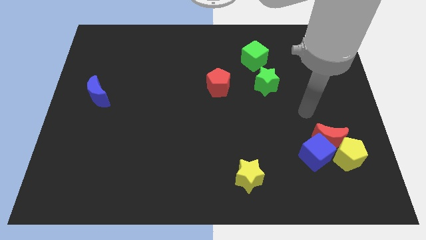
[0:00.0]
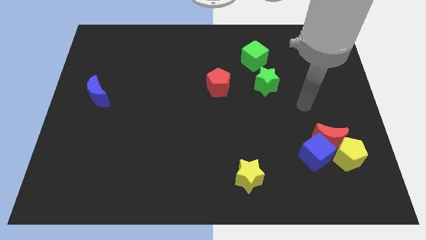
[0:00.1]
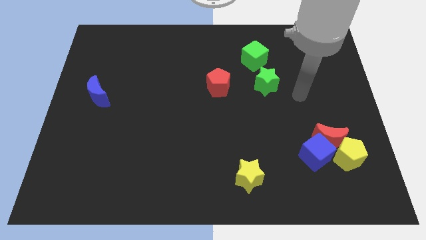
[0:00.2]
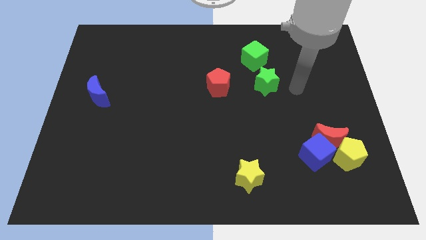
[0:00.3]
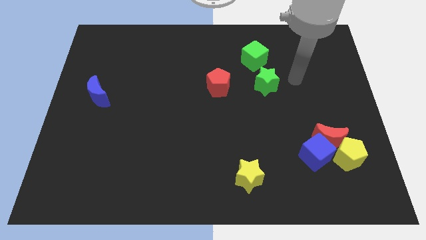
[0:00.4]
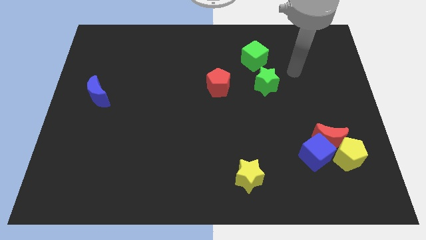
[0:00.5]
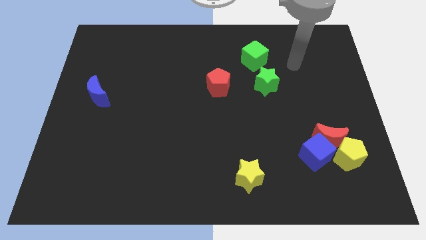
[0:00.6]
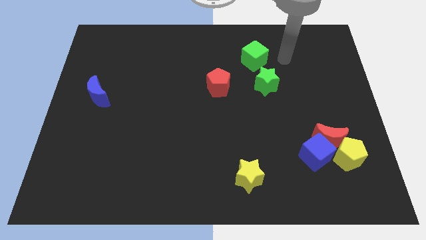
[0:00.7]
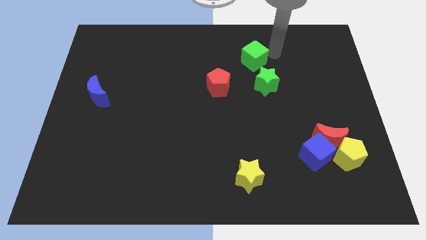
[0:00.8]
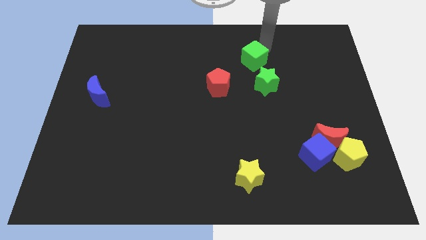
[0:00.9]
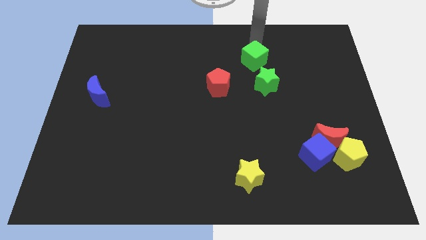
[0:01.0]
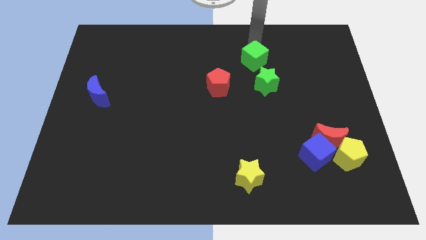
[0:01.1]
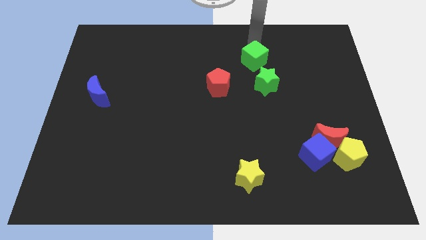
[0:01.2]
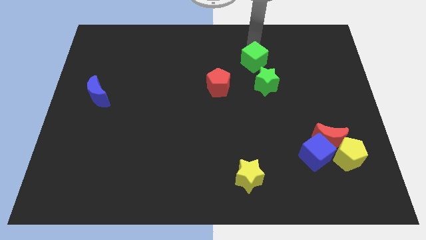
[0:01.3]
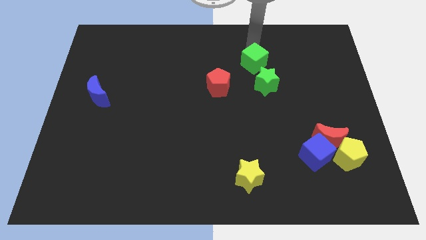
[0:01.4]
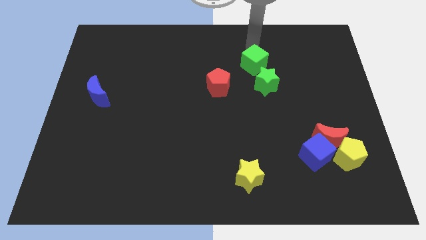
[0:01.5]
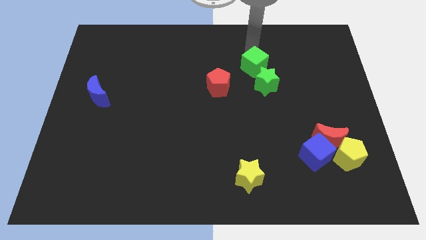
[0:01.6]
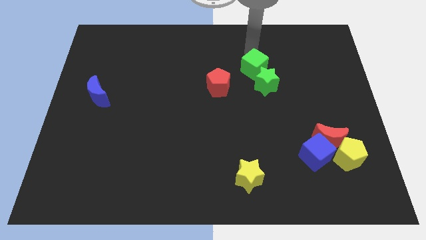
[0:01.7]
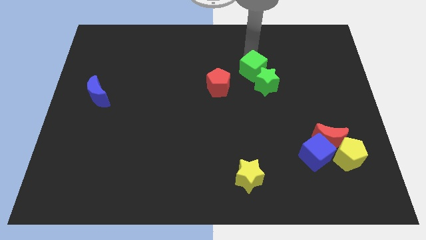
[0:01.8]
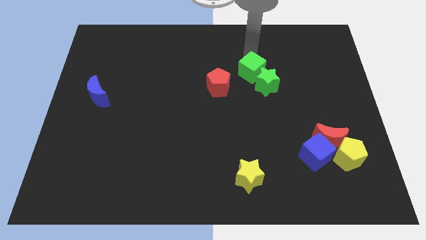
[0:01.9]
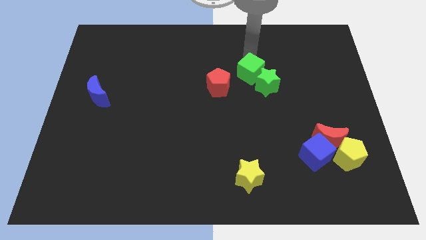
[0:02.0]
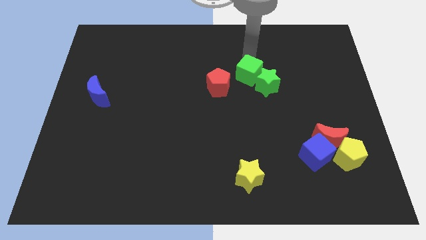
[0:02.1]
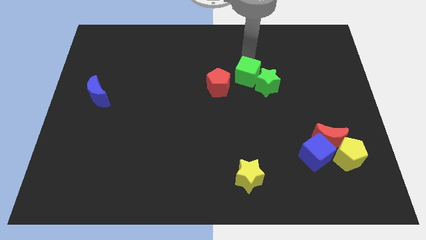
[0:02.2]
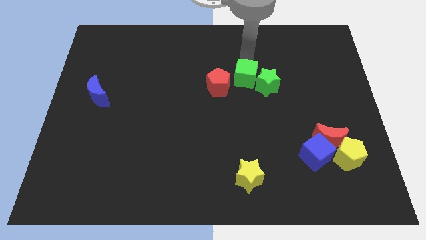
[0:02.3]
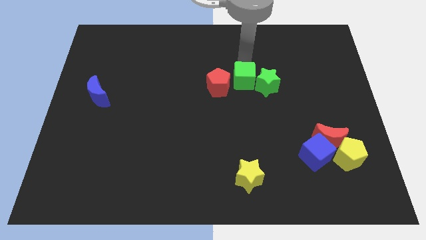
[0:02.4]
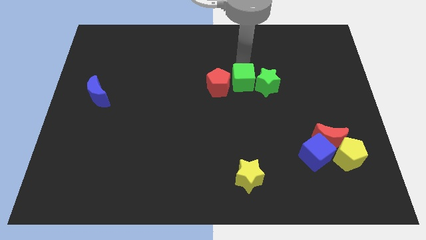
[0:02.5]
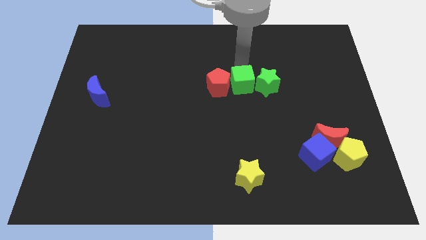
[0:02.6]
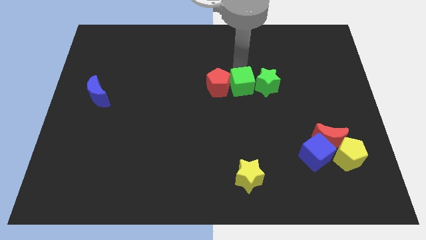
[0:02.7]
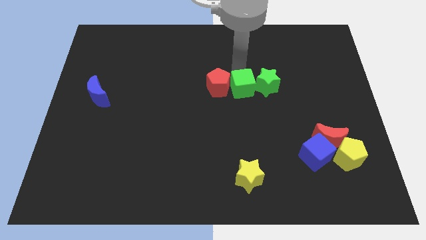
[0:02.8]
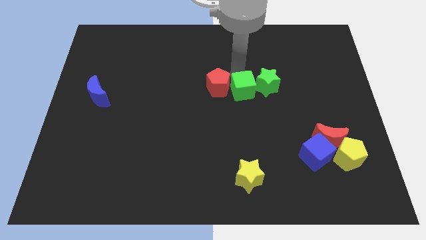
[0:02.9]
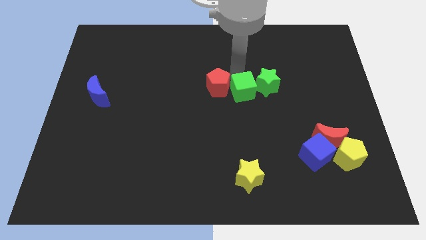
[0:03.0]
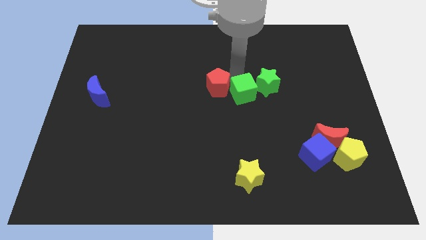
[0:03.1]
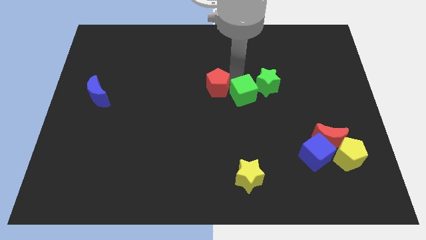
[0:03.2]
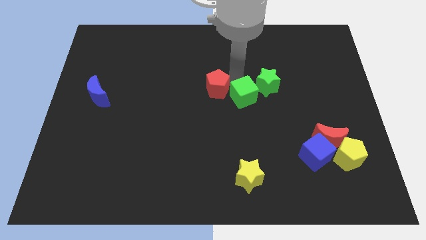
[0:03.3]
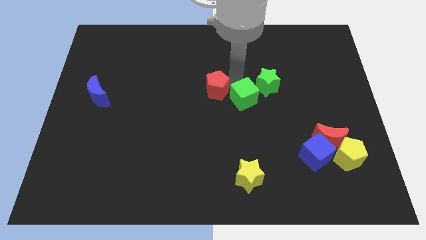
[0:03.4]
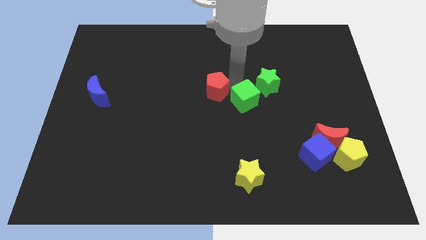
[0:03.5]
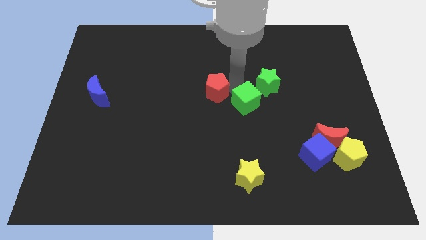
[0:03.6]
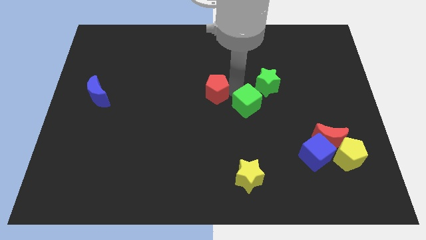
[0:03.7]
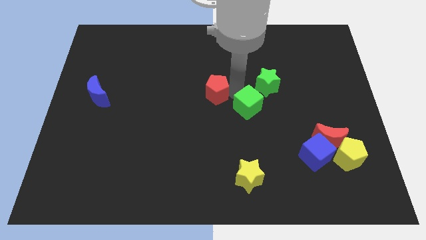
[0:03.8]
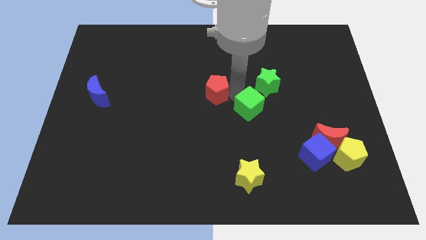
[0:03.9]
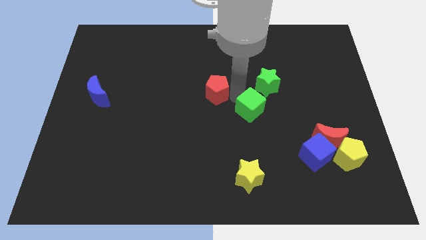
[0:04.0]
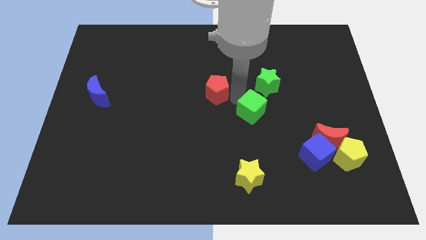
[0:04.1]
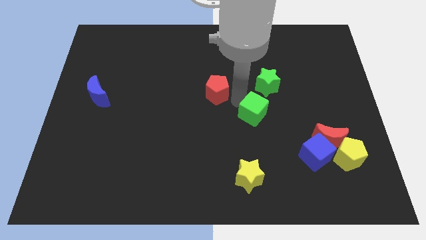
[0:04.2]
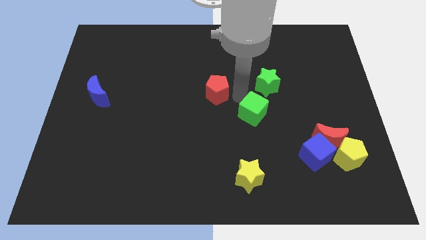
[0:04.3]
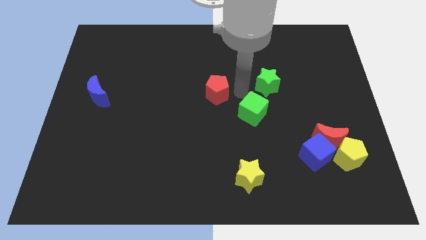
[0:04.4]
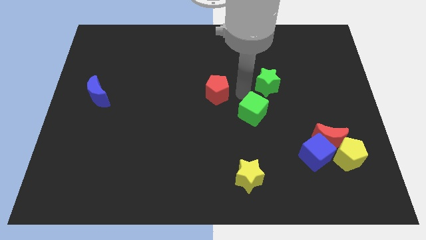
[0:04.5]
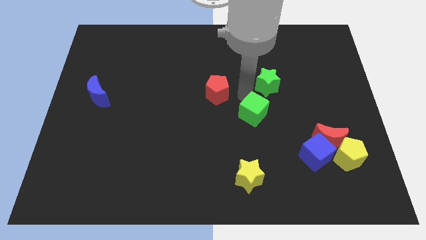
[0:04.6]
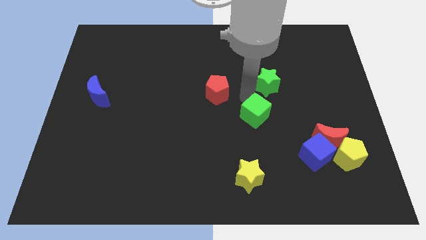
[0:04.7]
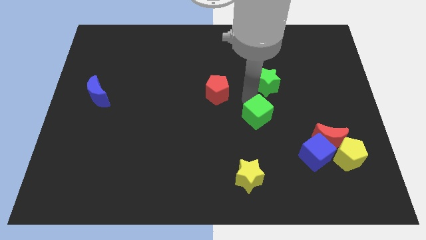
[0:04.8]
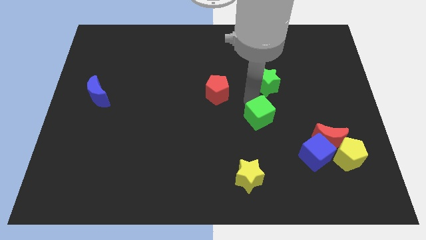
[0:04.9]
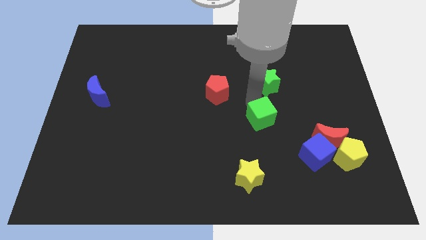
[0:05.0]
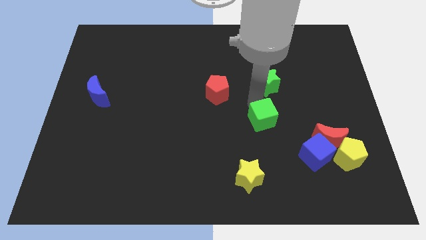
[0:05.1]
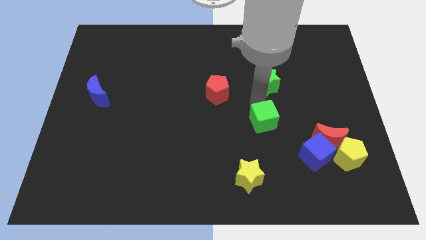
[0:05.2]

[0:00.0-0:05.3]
move the green cube downwards

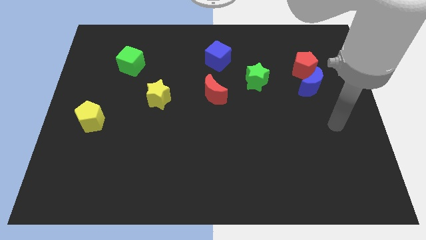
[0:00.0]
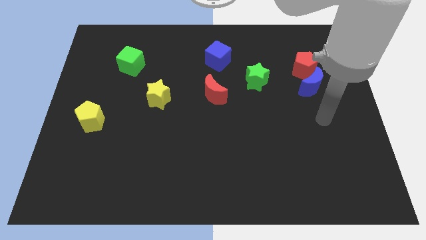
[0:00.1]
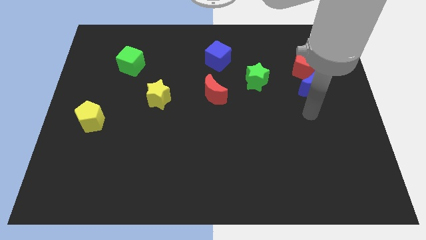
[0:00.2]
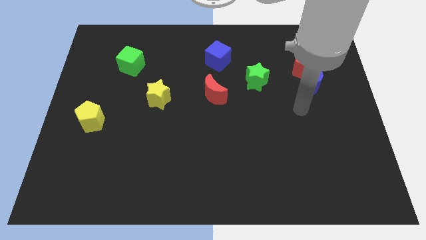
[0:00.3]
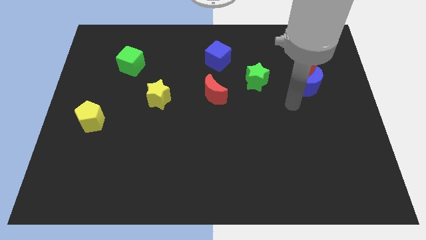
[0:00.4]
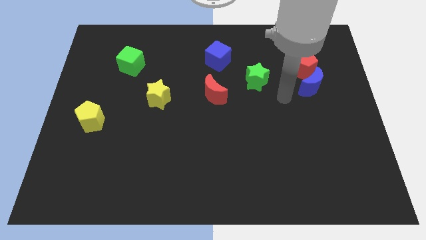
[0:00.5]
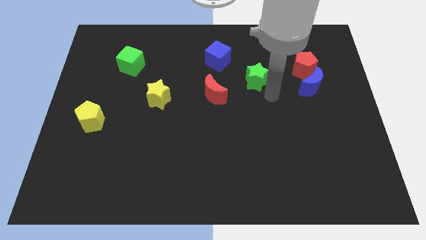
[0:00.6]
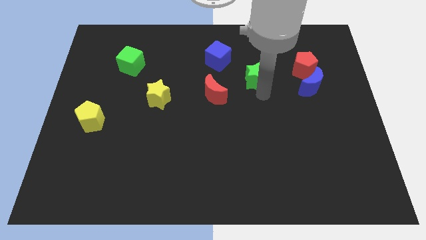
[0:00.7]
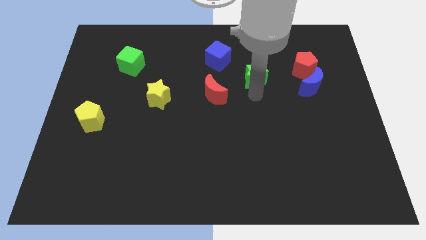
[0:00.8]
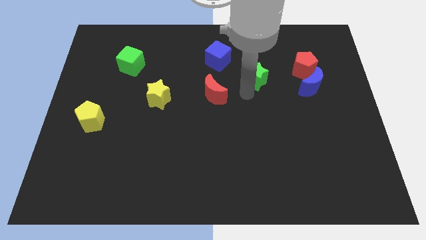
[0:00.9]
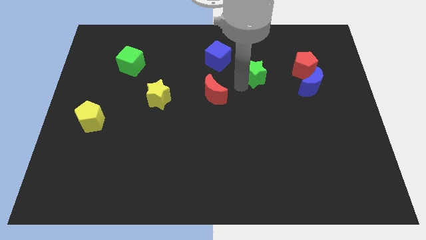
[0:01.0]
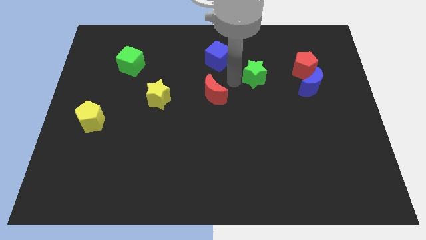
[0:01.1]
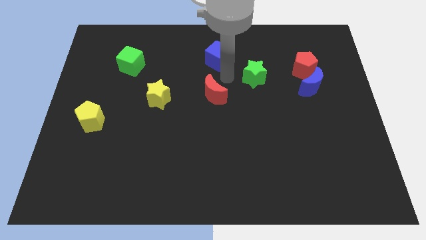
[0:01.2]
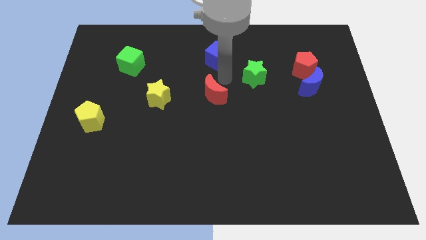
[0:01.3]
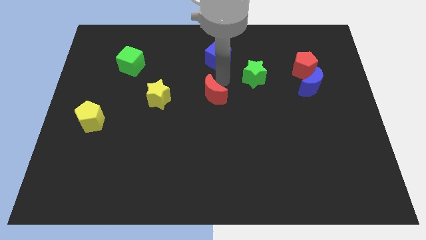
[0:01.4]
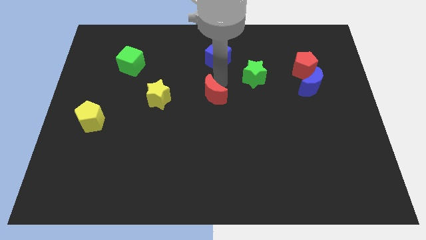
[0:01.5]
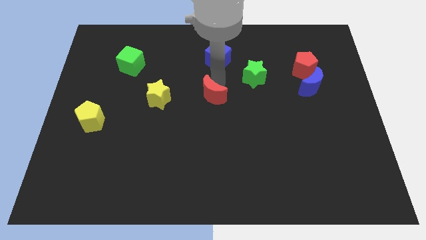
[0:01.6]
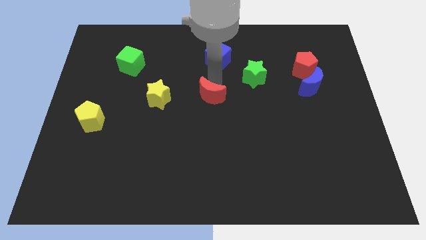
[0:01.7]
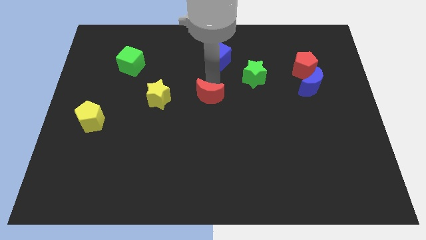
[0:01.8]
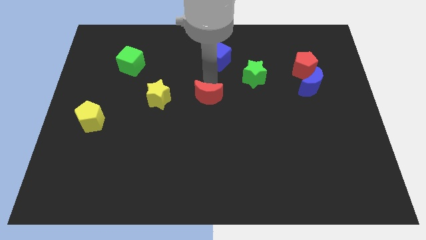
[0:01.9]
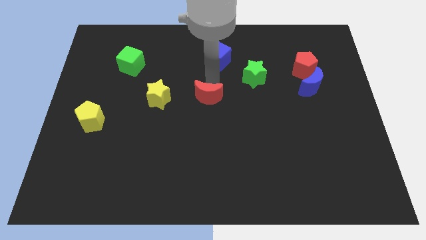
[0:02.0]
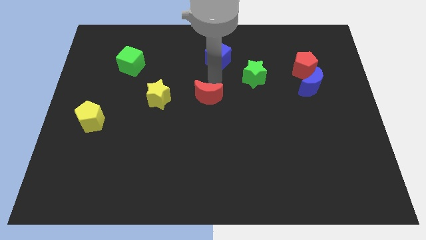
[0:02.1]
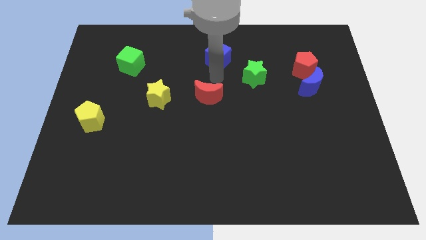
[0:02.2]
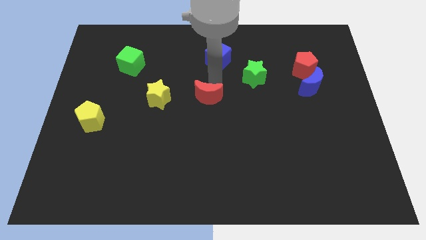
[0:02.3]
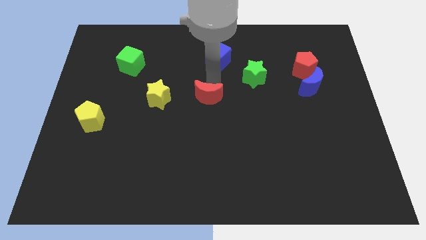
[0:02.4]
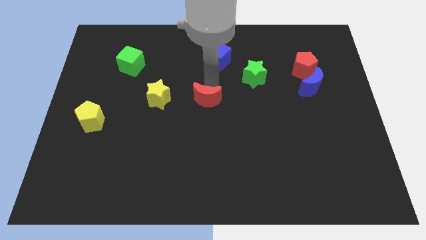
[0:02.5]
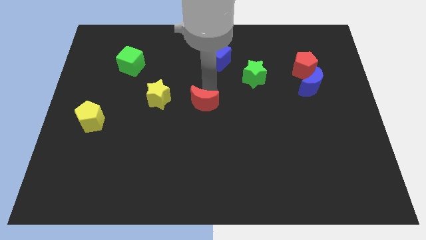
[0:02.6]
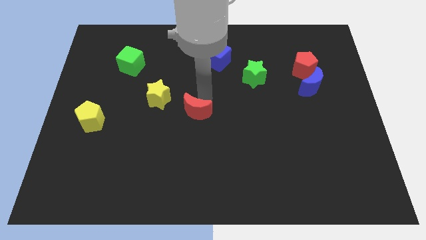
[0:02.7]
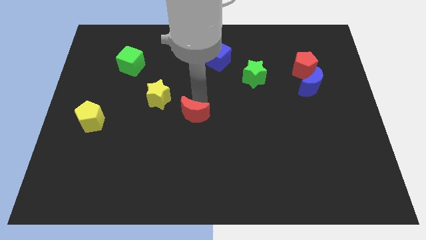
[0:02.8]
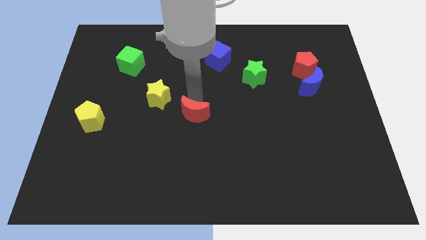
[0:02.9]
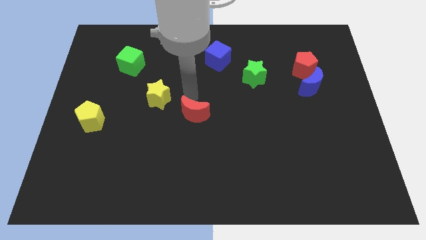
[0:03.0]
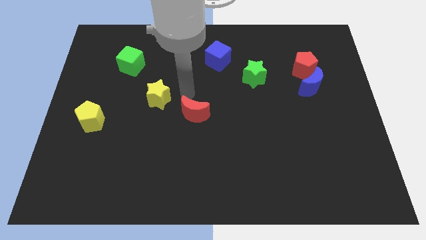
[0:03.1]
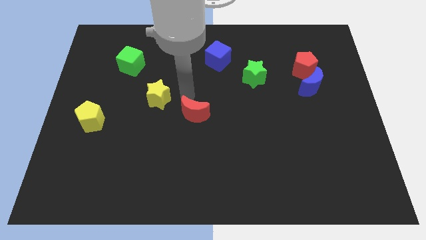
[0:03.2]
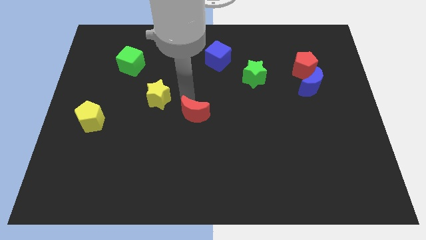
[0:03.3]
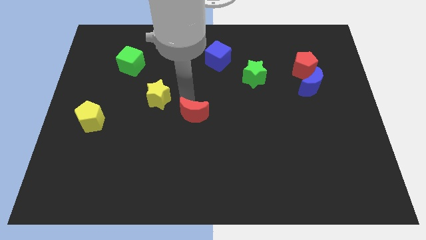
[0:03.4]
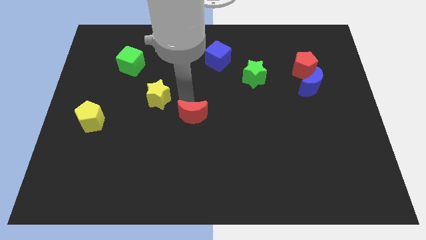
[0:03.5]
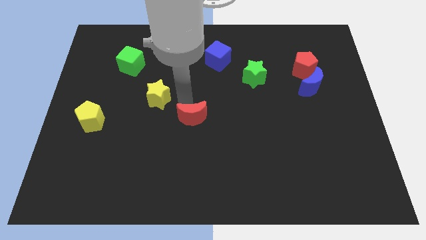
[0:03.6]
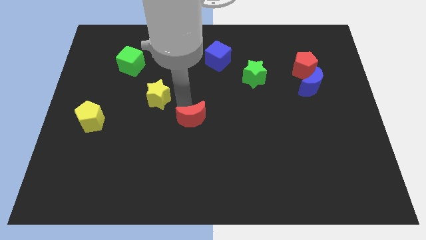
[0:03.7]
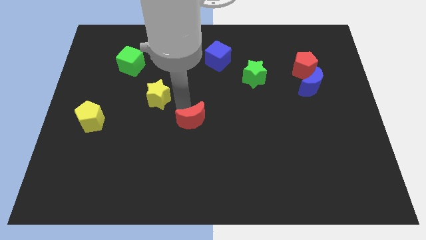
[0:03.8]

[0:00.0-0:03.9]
move the red moon downwards a little bit
